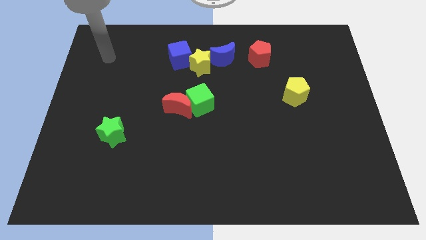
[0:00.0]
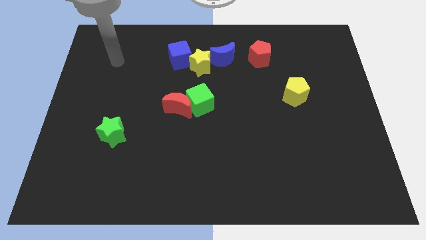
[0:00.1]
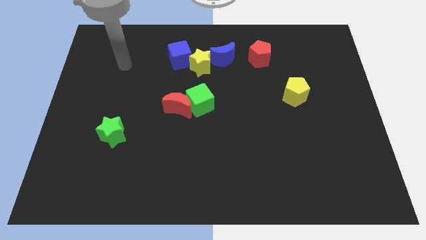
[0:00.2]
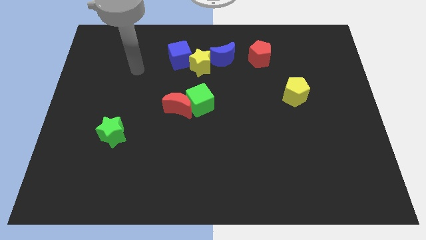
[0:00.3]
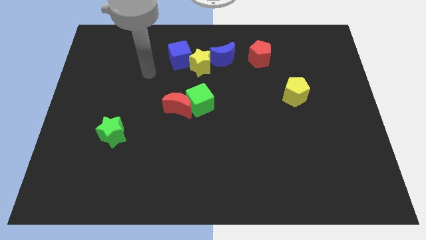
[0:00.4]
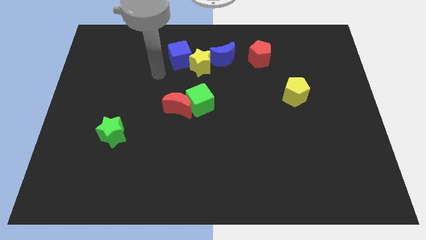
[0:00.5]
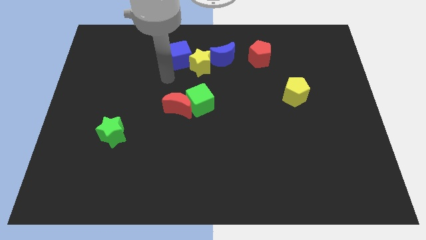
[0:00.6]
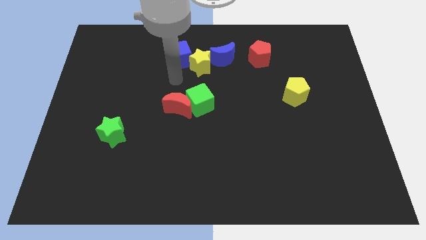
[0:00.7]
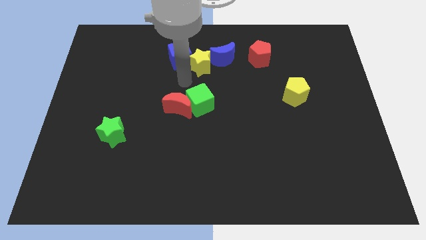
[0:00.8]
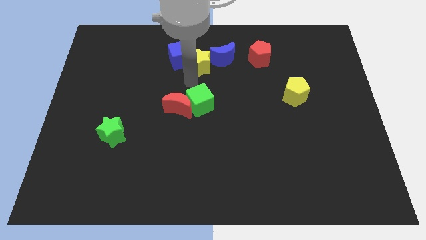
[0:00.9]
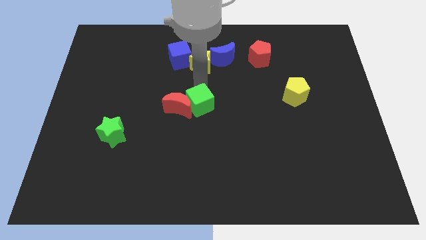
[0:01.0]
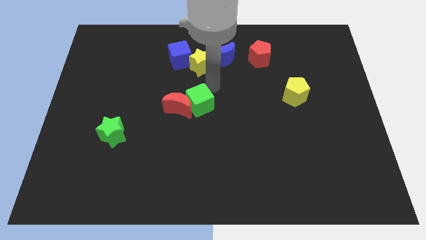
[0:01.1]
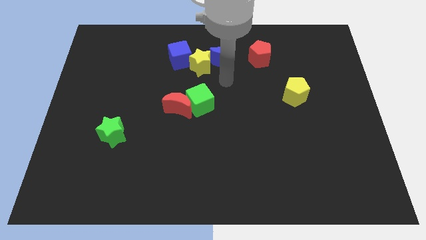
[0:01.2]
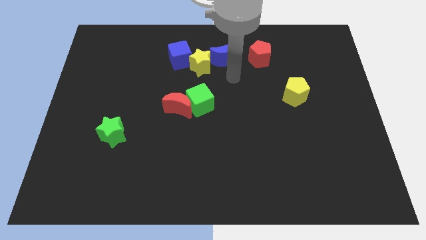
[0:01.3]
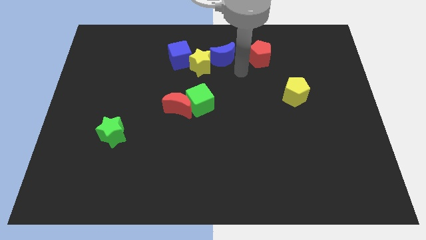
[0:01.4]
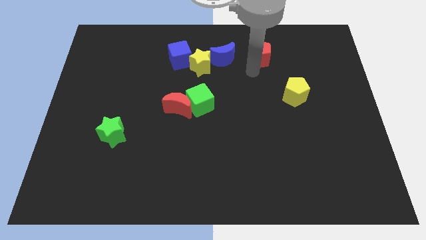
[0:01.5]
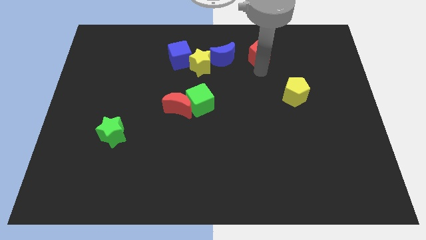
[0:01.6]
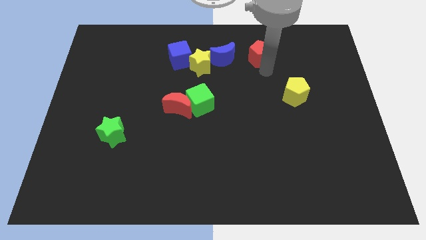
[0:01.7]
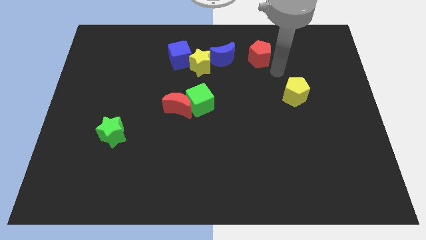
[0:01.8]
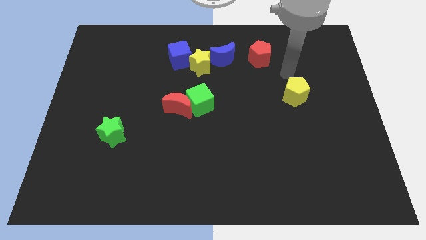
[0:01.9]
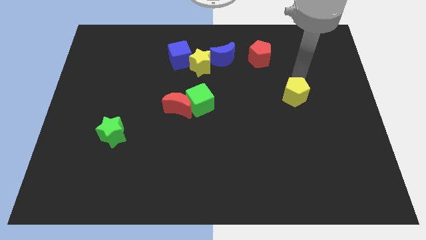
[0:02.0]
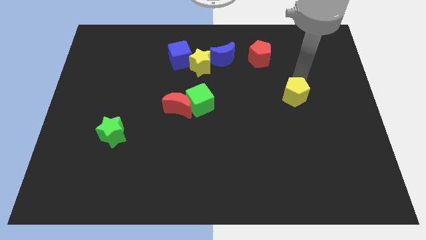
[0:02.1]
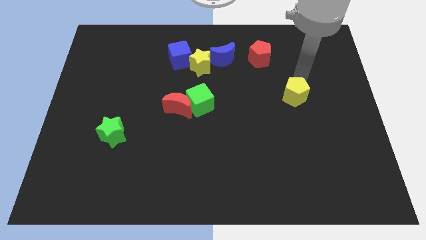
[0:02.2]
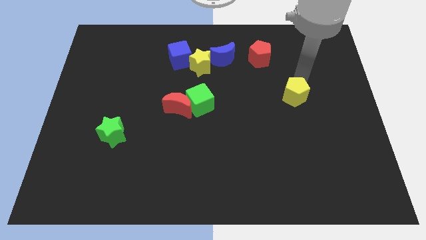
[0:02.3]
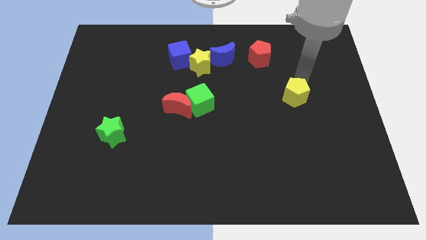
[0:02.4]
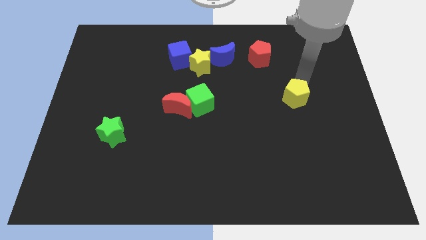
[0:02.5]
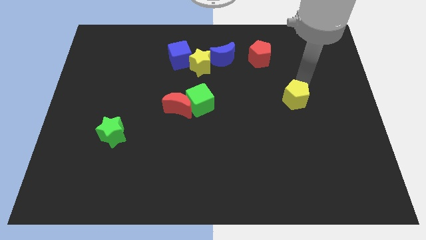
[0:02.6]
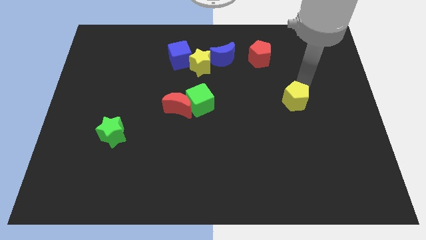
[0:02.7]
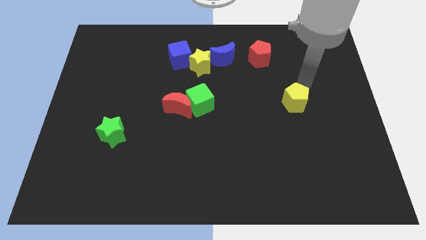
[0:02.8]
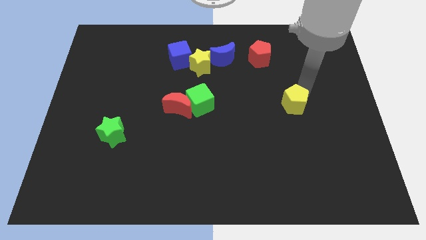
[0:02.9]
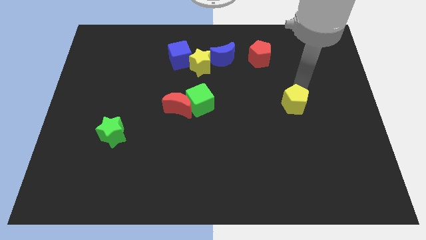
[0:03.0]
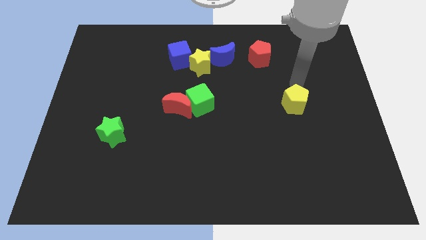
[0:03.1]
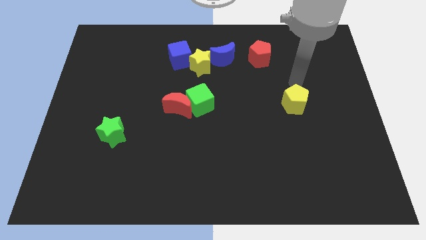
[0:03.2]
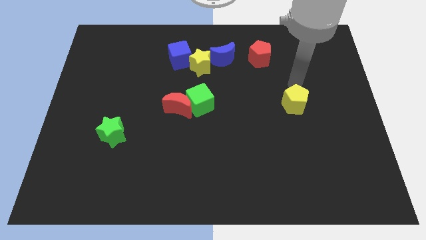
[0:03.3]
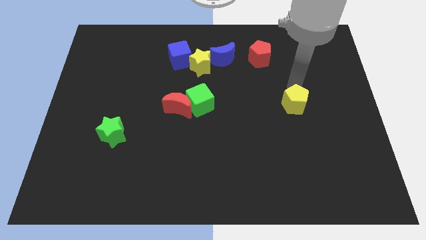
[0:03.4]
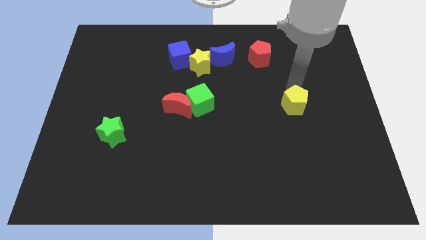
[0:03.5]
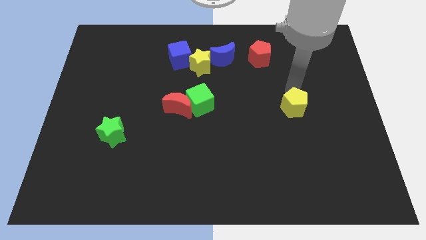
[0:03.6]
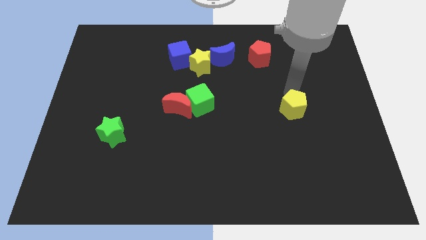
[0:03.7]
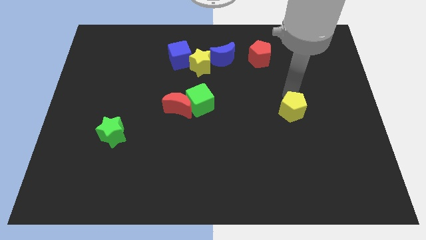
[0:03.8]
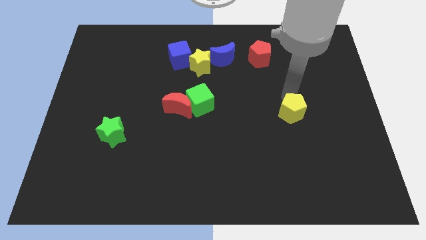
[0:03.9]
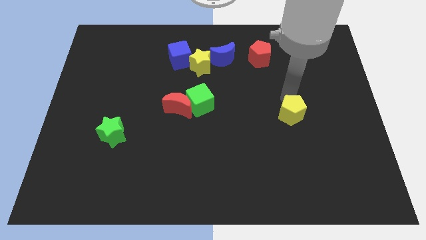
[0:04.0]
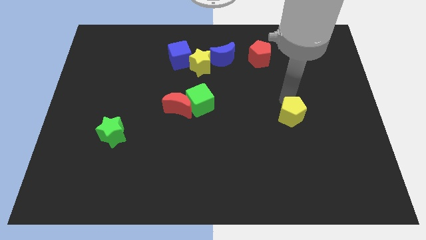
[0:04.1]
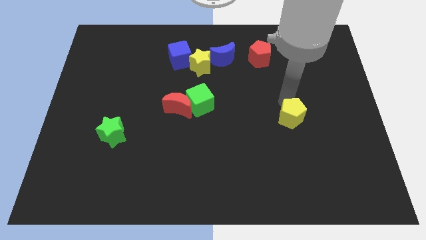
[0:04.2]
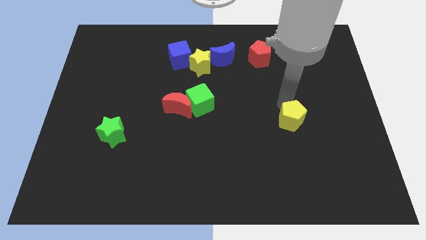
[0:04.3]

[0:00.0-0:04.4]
slightly push the yellow pentagon down

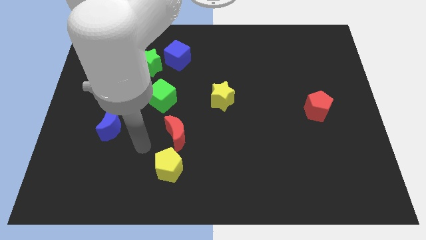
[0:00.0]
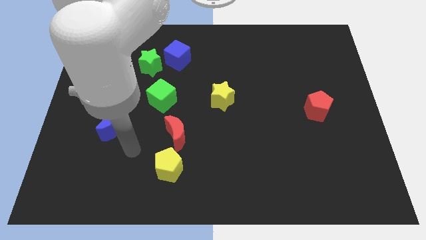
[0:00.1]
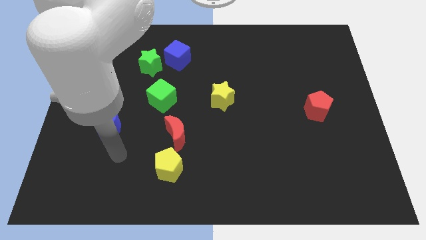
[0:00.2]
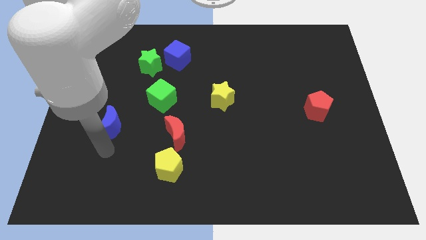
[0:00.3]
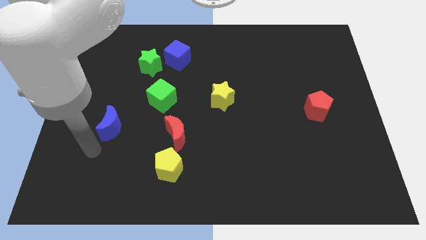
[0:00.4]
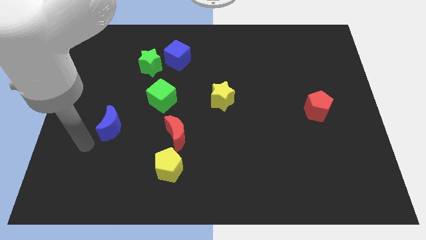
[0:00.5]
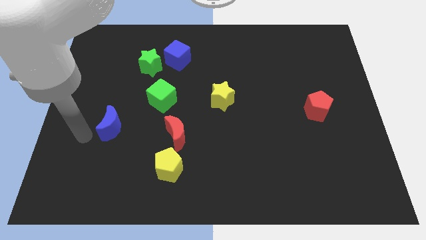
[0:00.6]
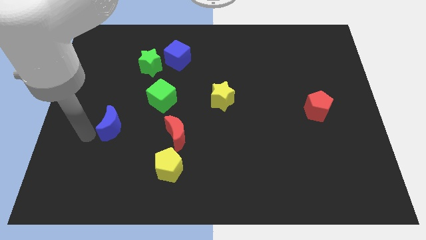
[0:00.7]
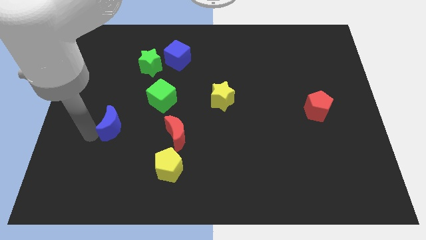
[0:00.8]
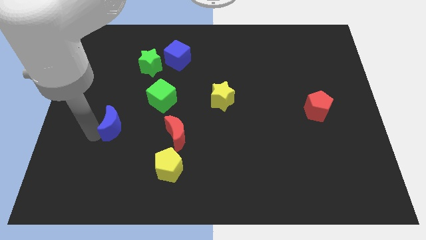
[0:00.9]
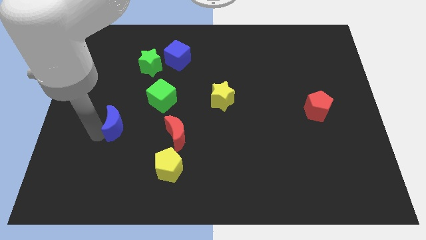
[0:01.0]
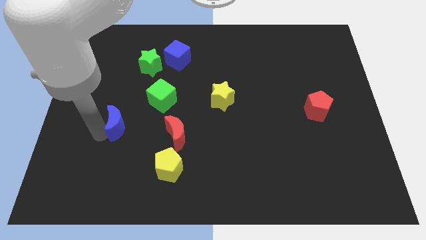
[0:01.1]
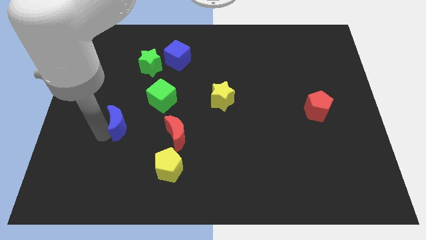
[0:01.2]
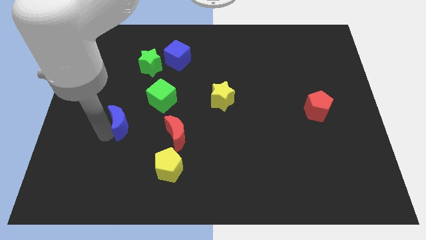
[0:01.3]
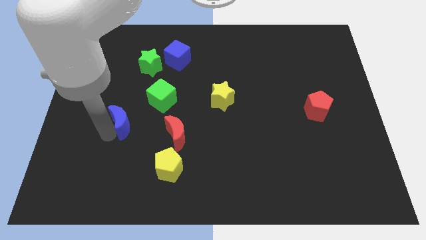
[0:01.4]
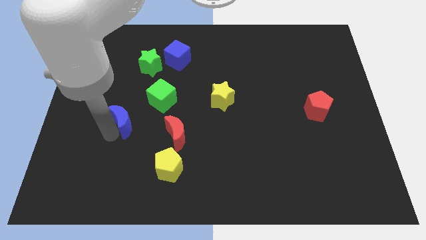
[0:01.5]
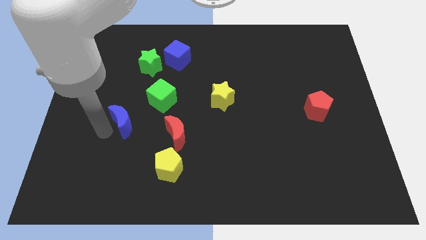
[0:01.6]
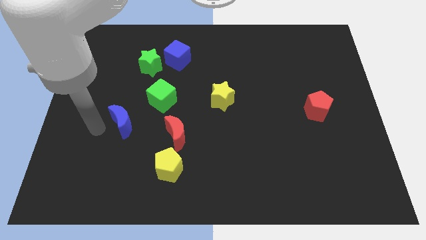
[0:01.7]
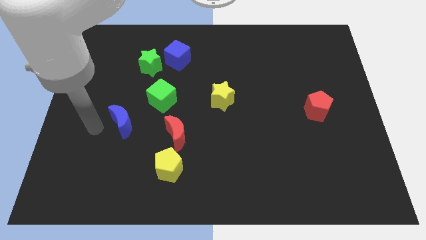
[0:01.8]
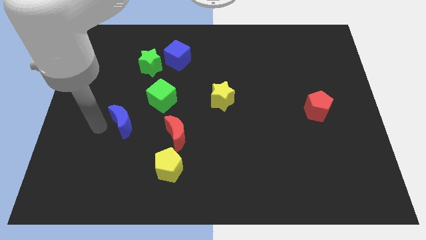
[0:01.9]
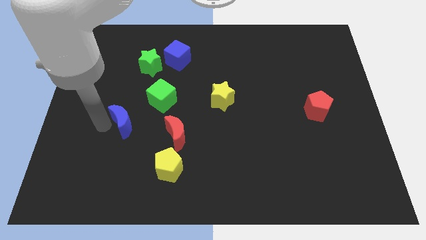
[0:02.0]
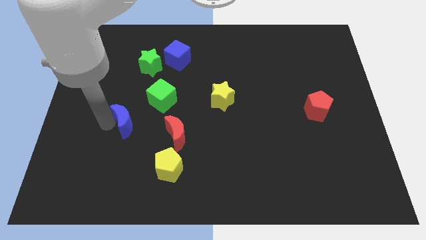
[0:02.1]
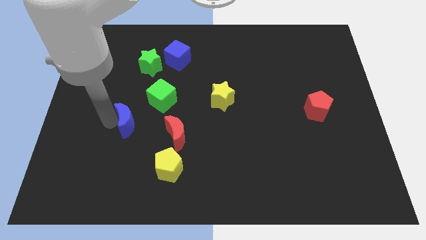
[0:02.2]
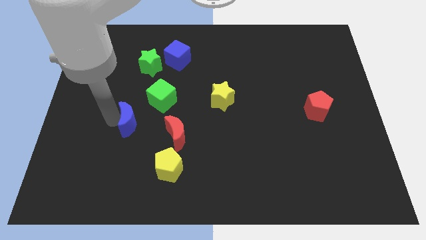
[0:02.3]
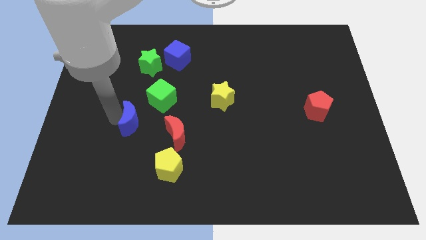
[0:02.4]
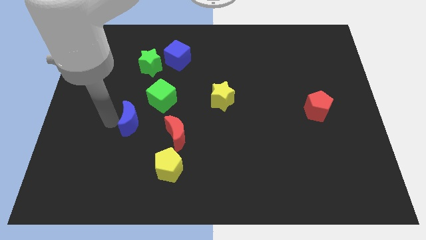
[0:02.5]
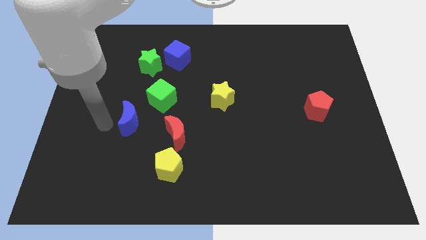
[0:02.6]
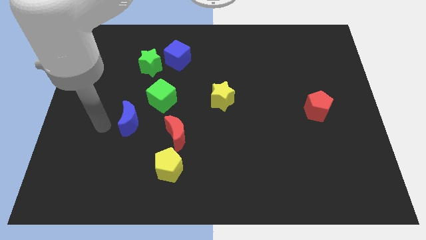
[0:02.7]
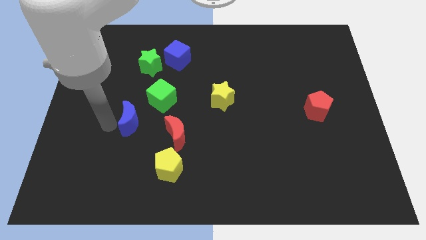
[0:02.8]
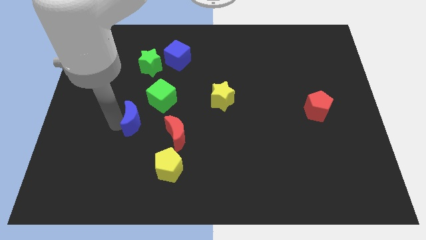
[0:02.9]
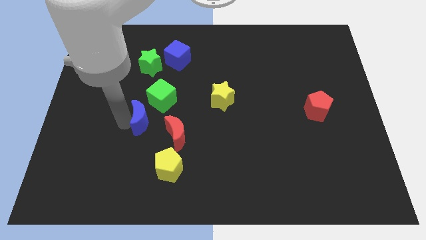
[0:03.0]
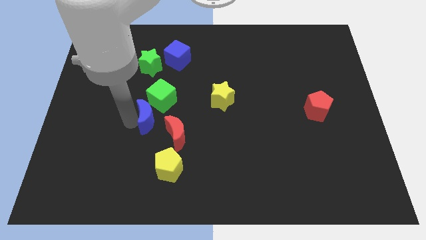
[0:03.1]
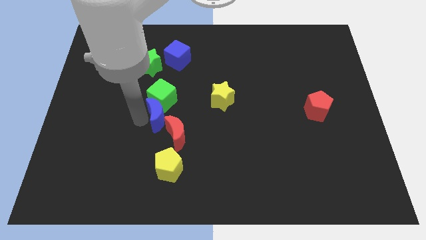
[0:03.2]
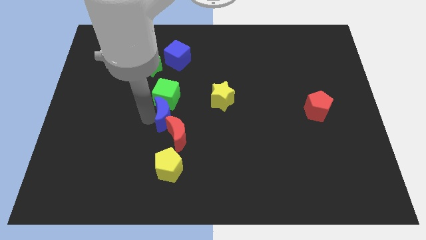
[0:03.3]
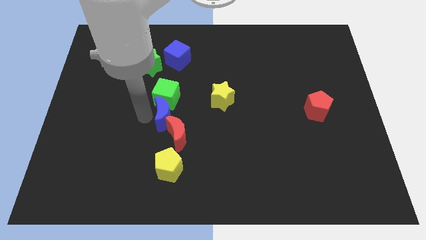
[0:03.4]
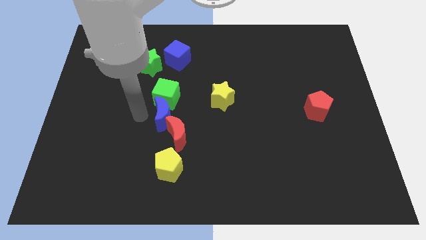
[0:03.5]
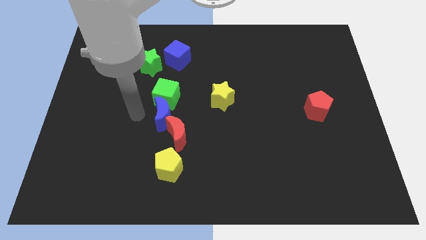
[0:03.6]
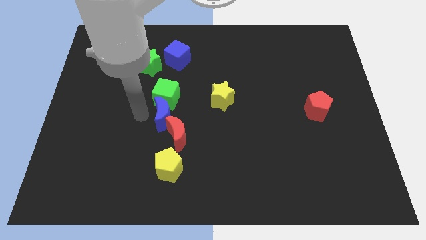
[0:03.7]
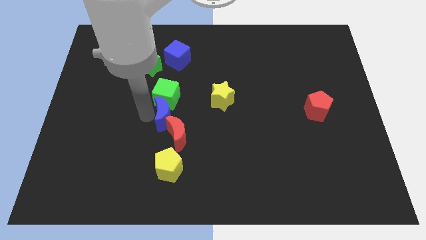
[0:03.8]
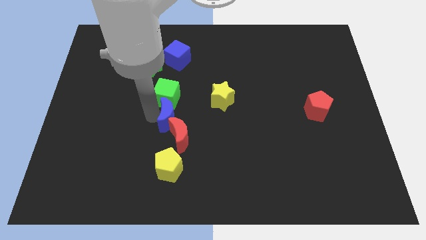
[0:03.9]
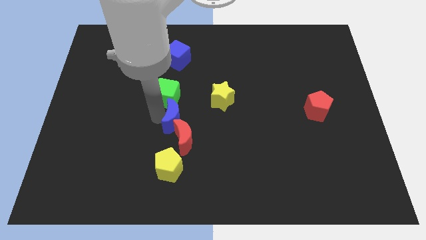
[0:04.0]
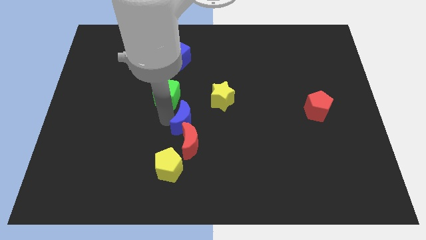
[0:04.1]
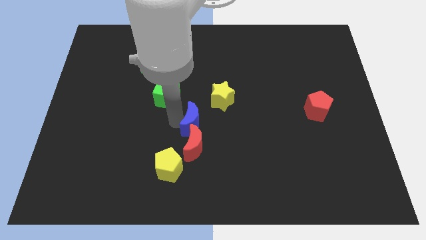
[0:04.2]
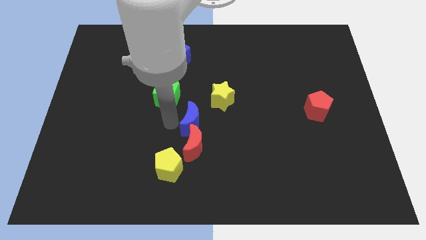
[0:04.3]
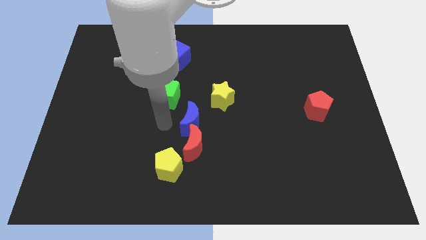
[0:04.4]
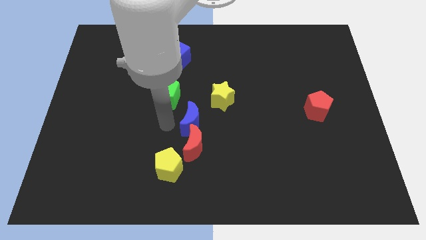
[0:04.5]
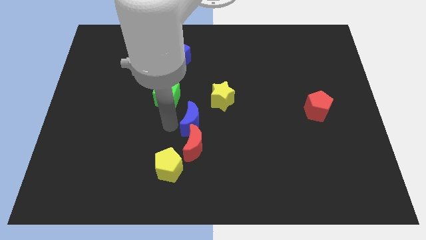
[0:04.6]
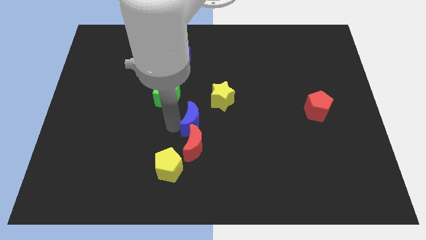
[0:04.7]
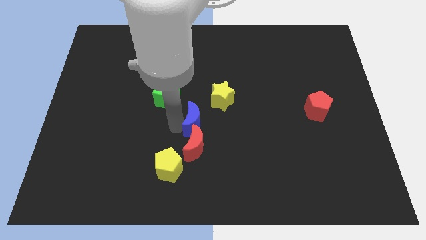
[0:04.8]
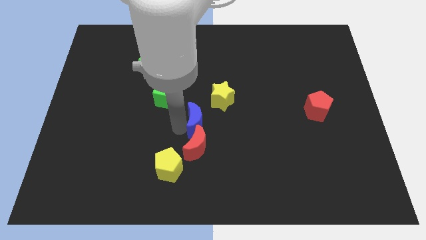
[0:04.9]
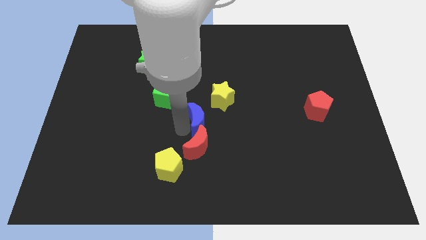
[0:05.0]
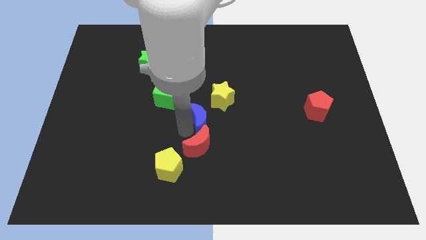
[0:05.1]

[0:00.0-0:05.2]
push the blue moon right
